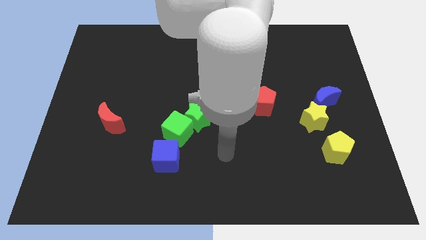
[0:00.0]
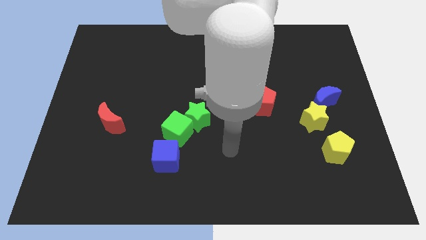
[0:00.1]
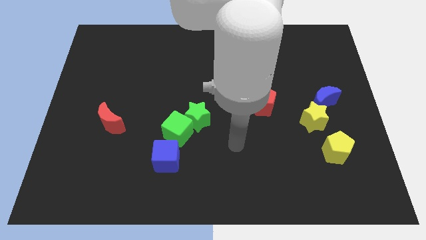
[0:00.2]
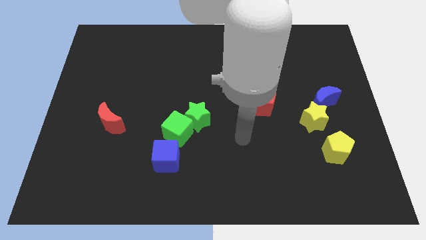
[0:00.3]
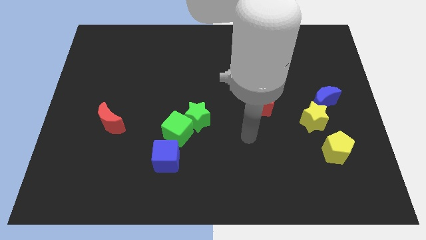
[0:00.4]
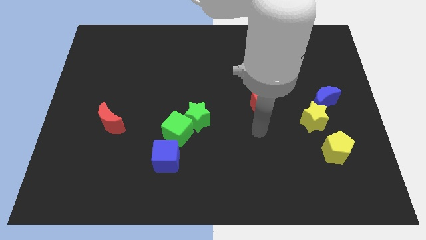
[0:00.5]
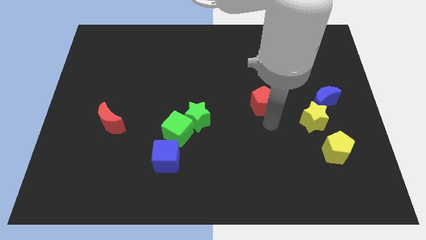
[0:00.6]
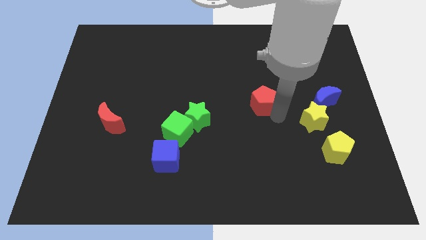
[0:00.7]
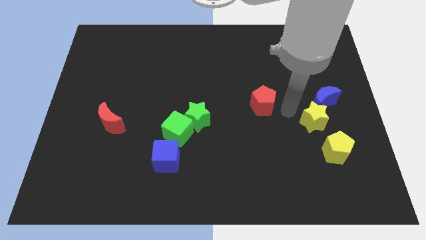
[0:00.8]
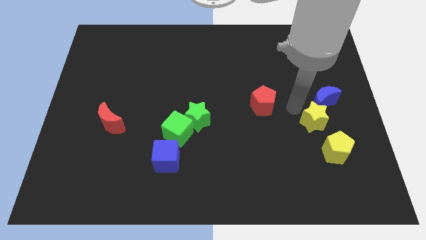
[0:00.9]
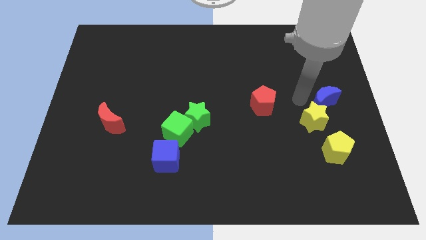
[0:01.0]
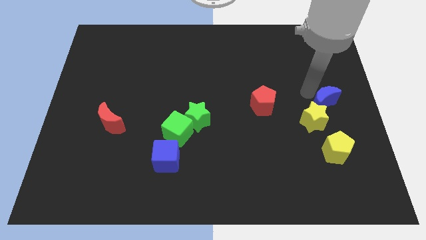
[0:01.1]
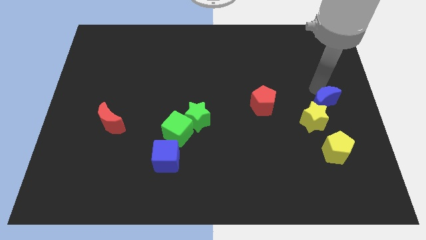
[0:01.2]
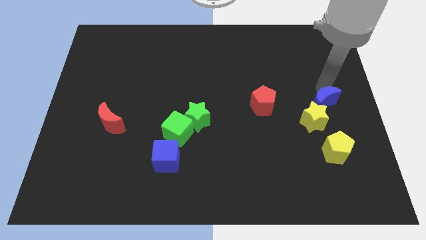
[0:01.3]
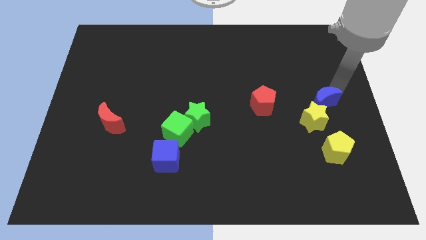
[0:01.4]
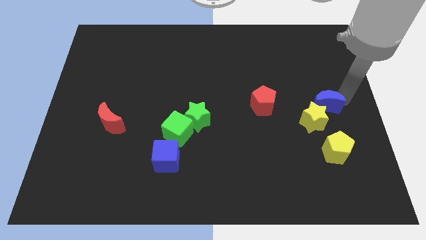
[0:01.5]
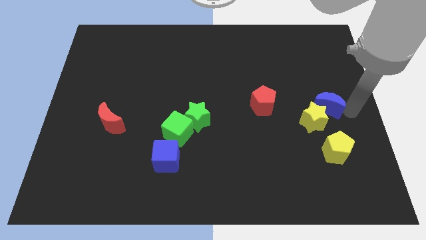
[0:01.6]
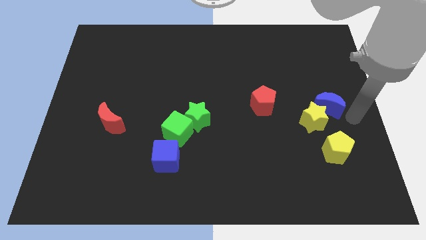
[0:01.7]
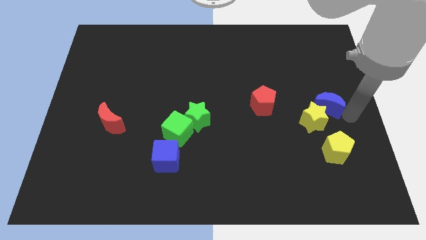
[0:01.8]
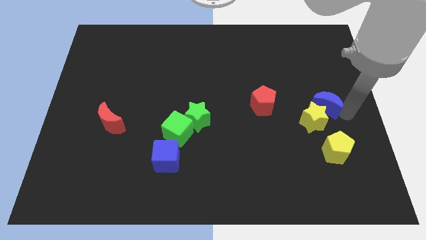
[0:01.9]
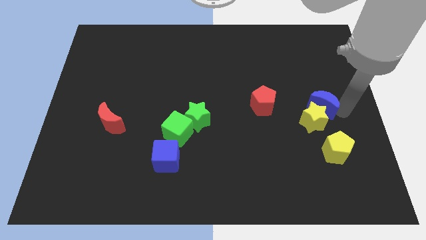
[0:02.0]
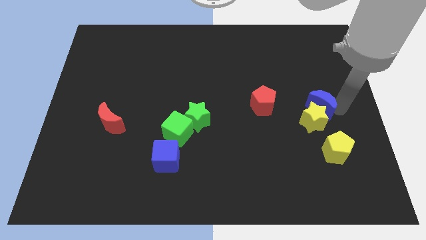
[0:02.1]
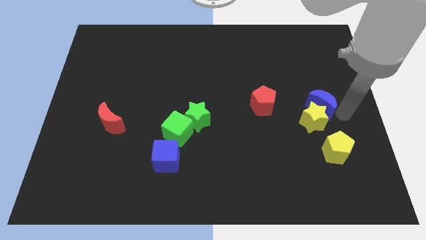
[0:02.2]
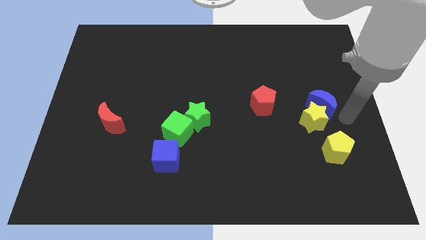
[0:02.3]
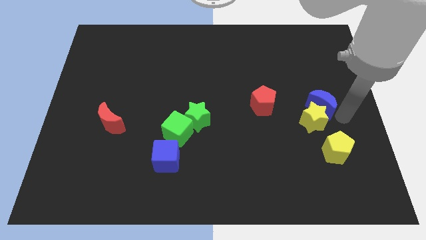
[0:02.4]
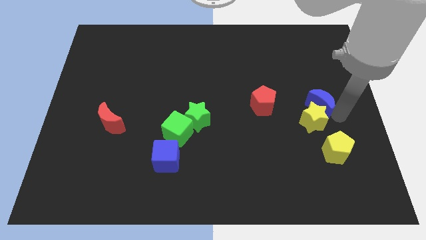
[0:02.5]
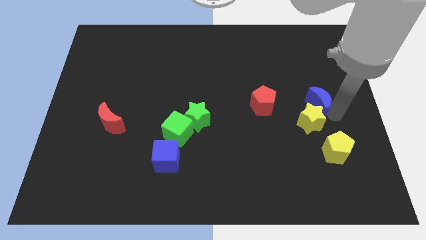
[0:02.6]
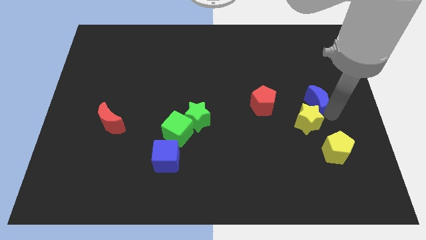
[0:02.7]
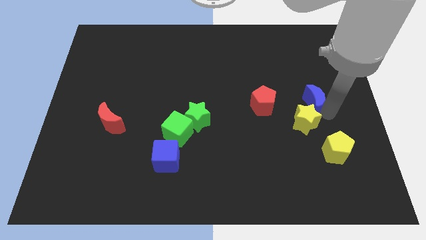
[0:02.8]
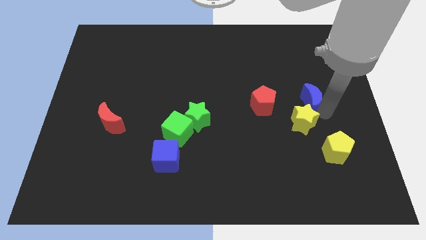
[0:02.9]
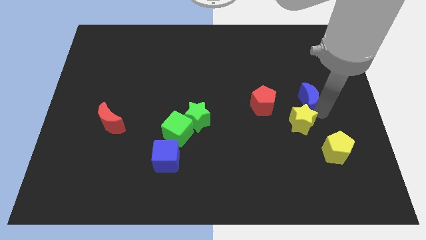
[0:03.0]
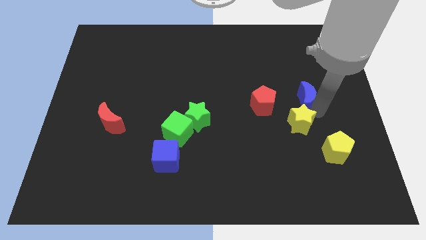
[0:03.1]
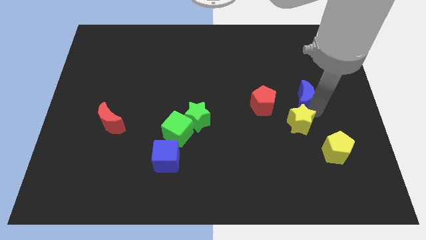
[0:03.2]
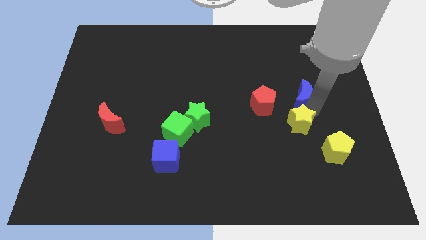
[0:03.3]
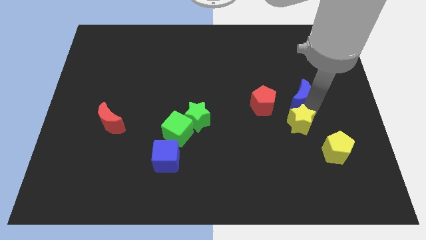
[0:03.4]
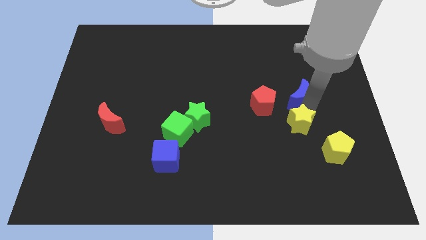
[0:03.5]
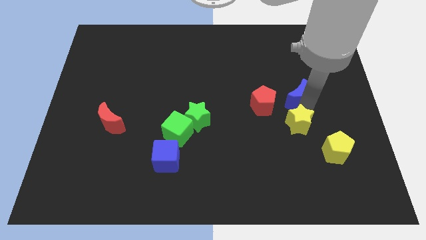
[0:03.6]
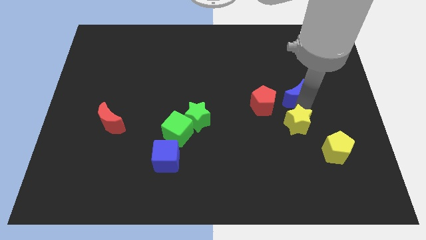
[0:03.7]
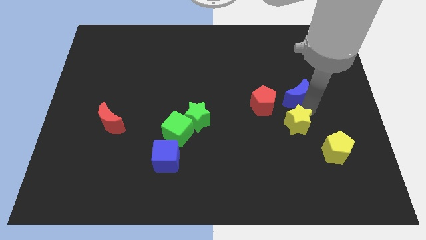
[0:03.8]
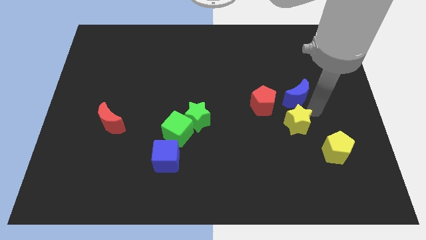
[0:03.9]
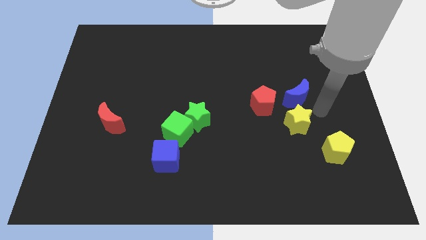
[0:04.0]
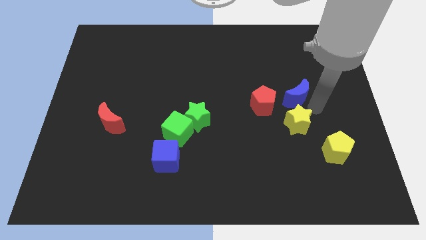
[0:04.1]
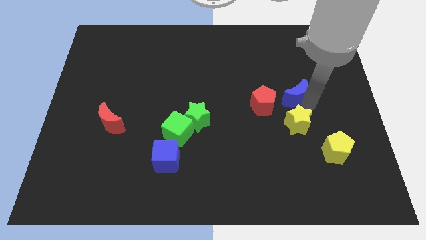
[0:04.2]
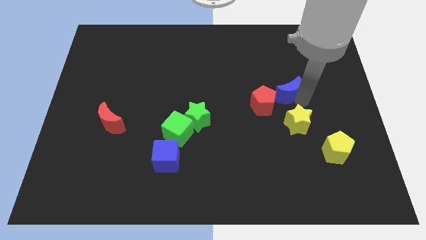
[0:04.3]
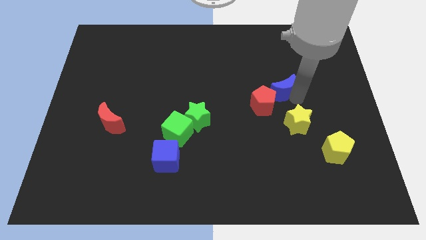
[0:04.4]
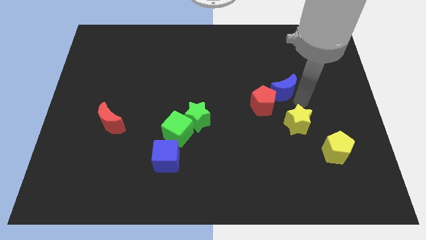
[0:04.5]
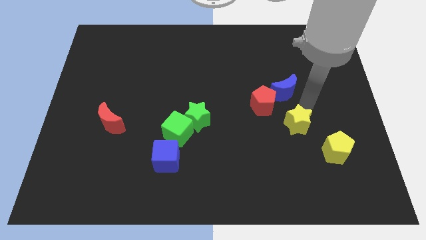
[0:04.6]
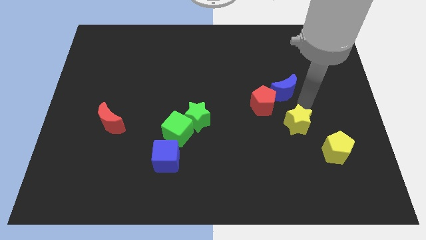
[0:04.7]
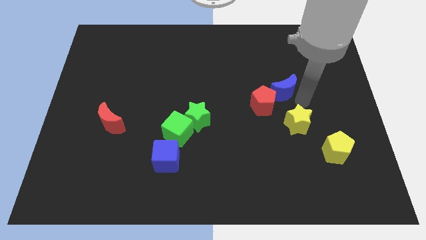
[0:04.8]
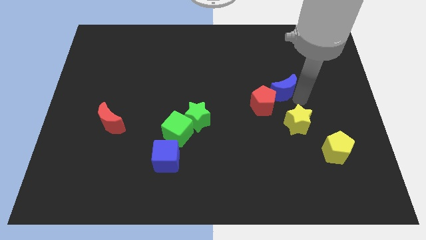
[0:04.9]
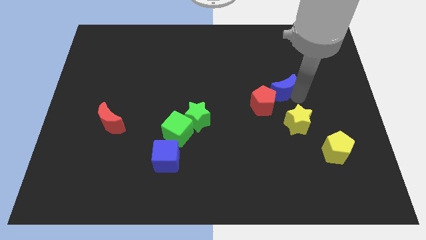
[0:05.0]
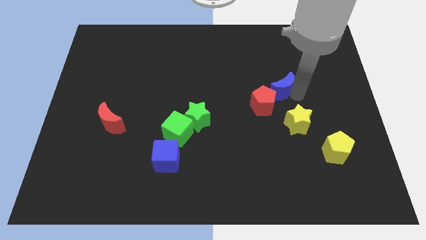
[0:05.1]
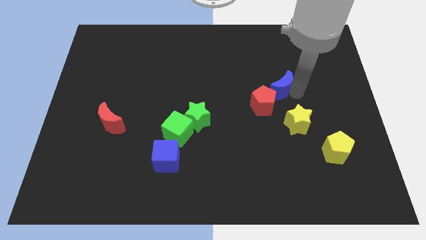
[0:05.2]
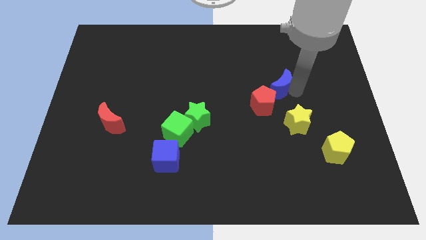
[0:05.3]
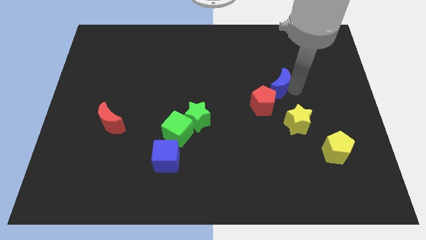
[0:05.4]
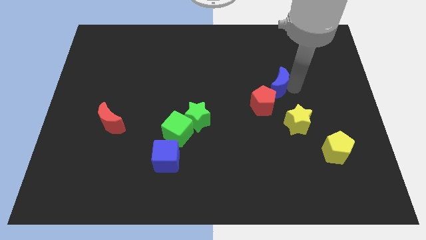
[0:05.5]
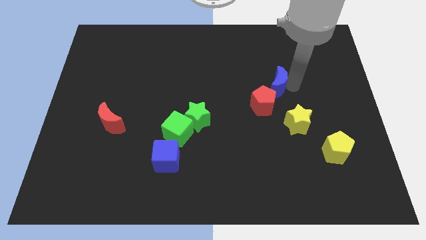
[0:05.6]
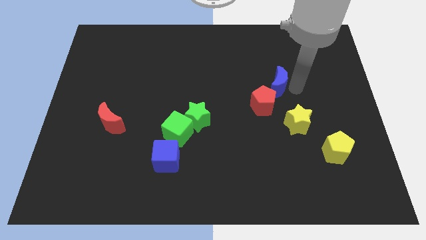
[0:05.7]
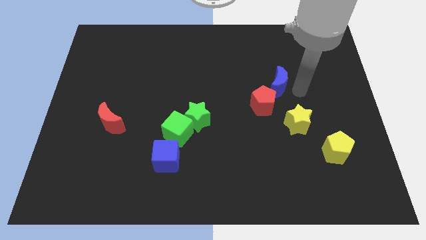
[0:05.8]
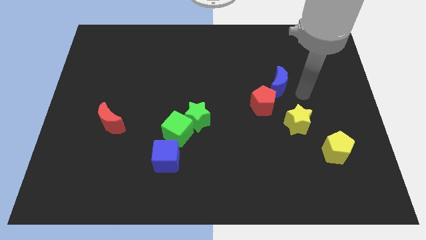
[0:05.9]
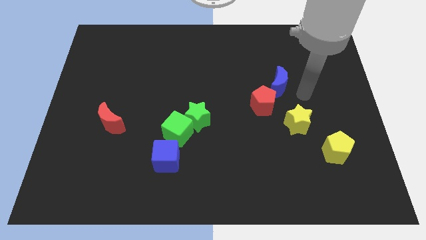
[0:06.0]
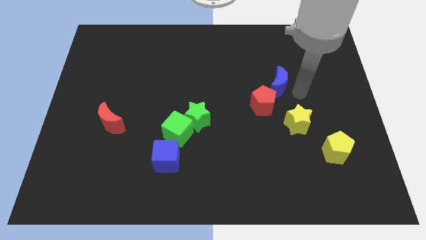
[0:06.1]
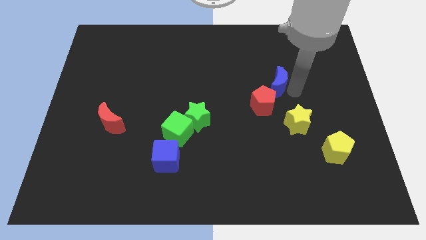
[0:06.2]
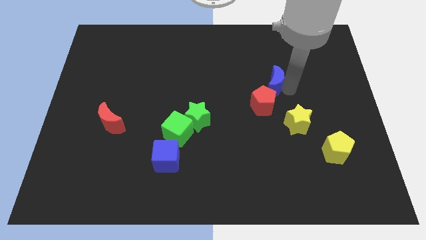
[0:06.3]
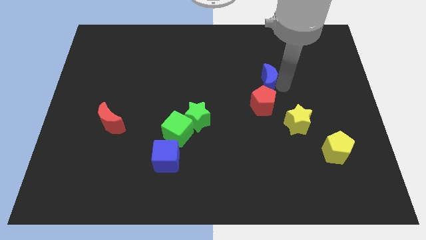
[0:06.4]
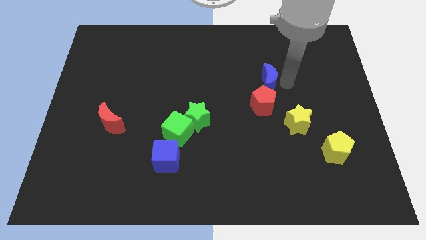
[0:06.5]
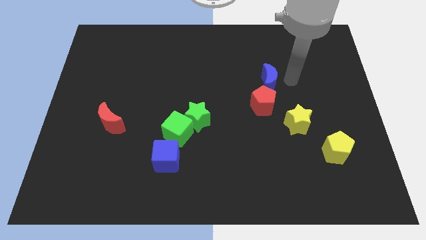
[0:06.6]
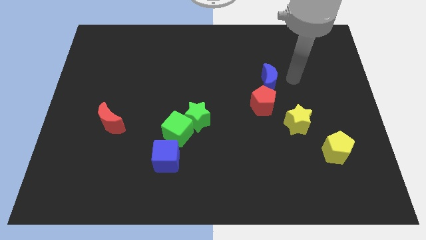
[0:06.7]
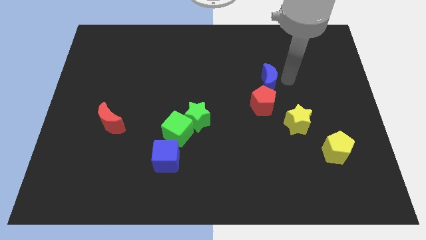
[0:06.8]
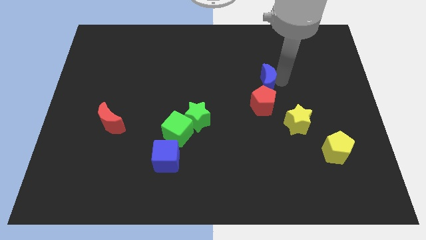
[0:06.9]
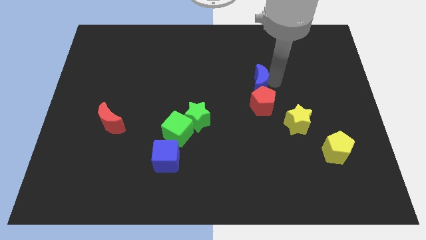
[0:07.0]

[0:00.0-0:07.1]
move the blue moon to the middle
